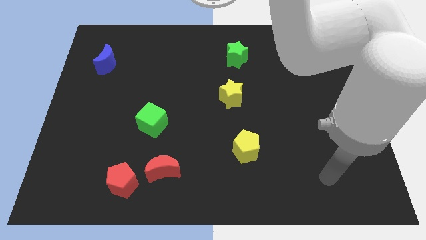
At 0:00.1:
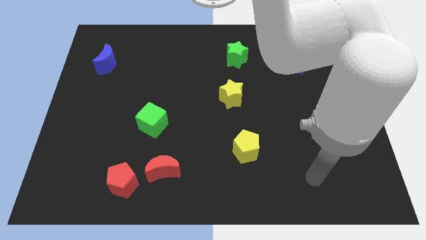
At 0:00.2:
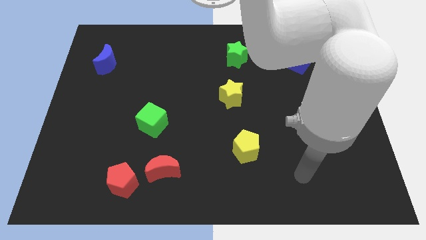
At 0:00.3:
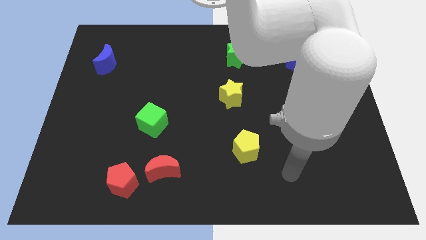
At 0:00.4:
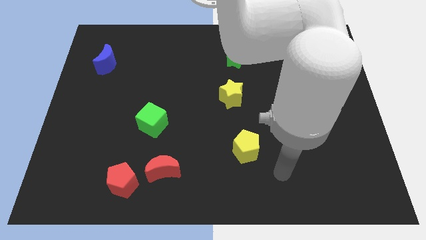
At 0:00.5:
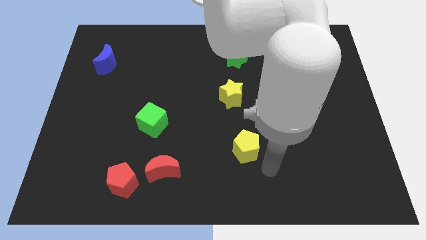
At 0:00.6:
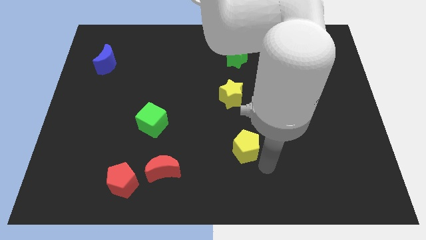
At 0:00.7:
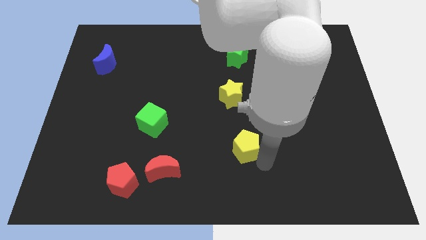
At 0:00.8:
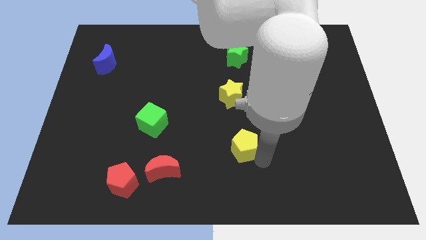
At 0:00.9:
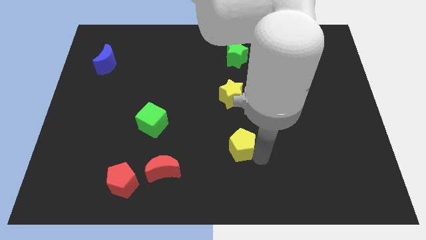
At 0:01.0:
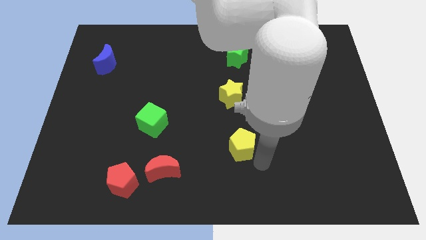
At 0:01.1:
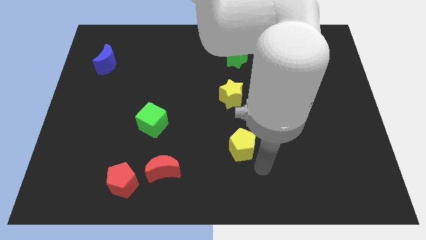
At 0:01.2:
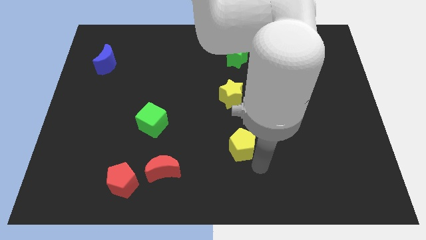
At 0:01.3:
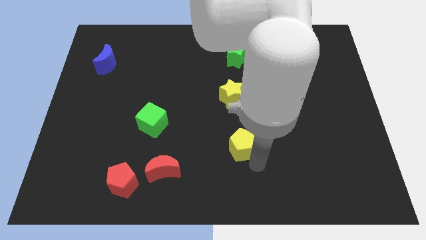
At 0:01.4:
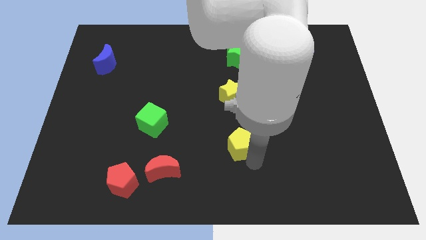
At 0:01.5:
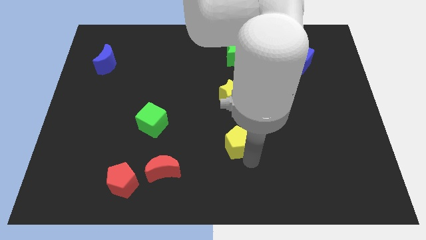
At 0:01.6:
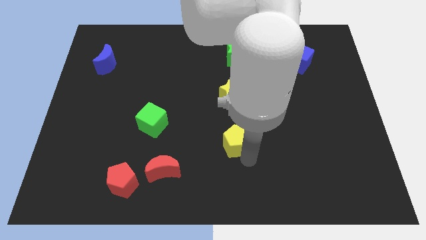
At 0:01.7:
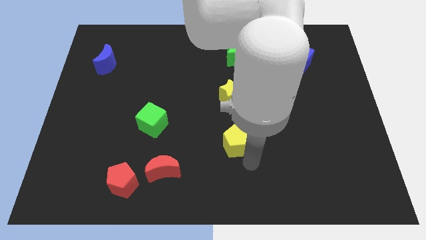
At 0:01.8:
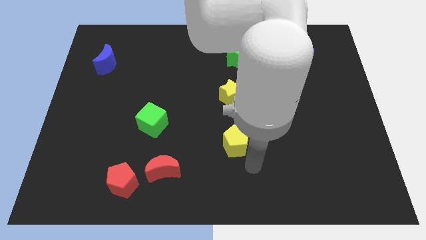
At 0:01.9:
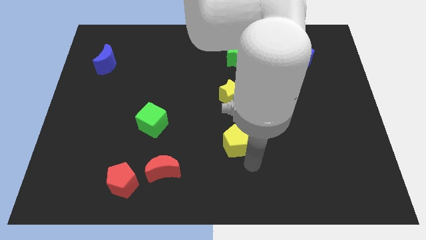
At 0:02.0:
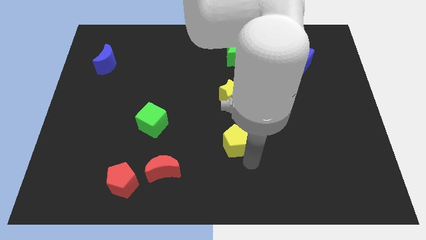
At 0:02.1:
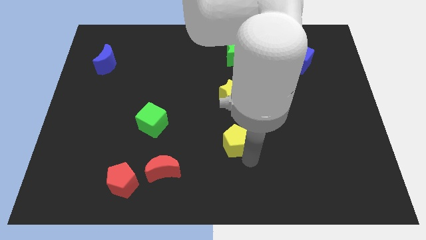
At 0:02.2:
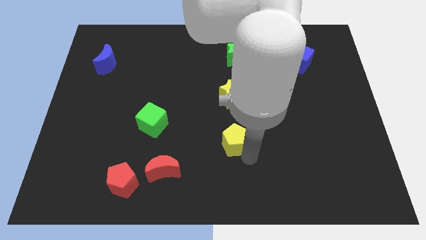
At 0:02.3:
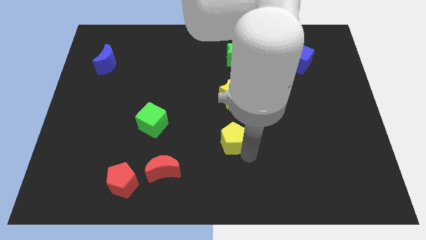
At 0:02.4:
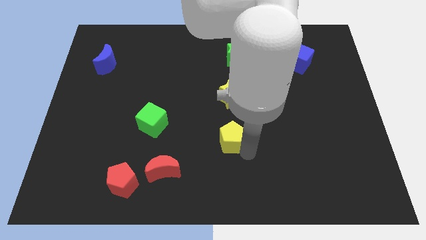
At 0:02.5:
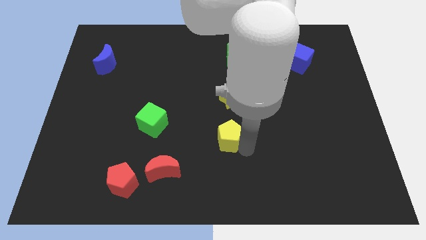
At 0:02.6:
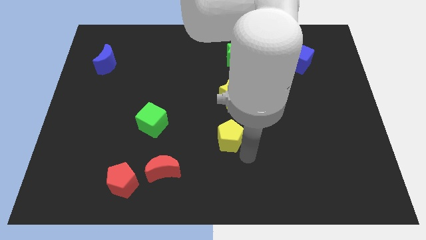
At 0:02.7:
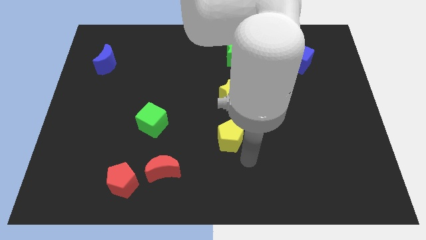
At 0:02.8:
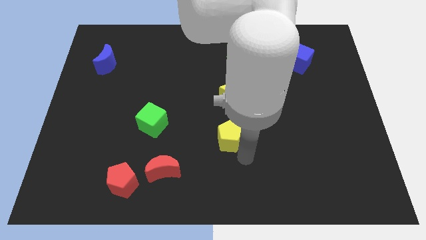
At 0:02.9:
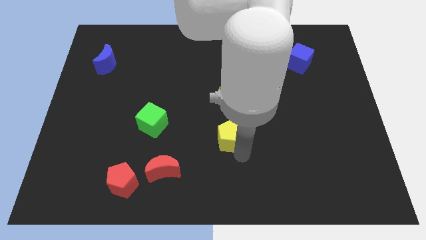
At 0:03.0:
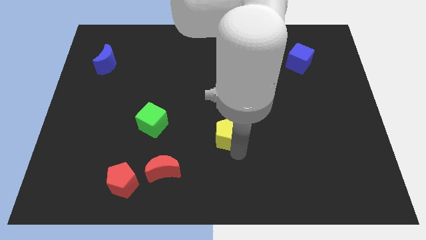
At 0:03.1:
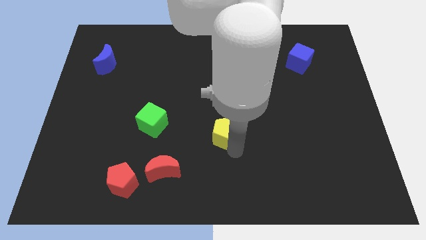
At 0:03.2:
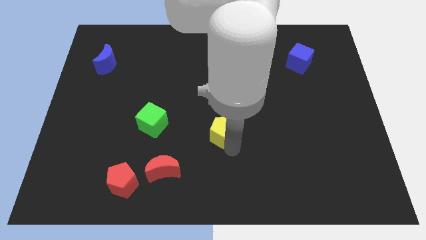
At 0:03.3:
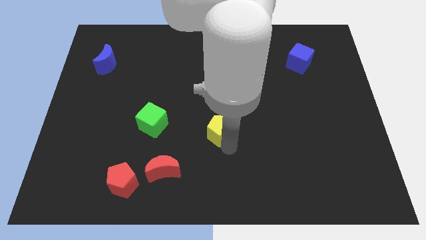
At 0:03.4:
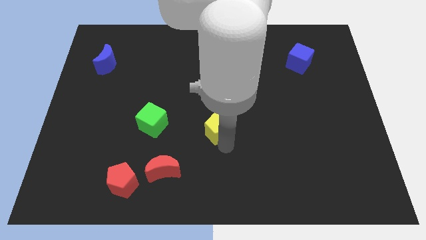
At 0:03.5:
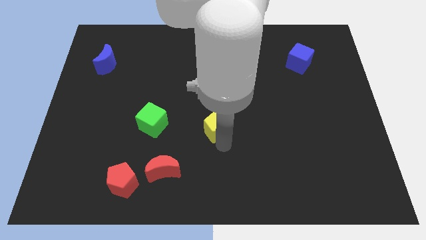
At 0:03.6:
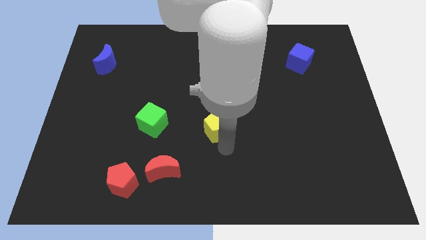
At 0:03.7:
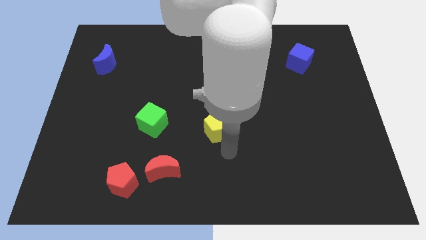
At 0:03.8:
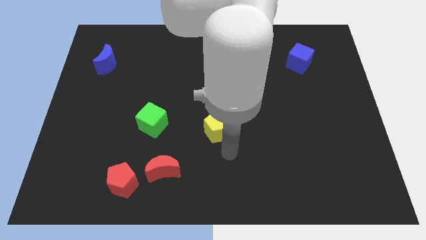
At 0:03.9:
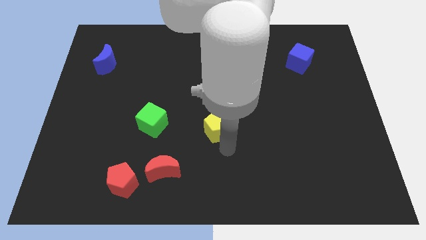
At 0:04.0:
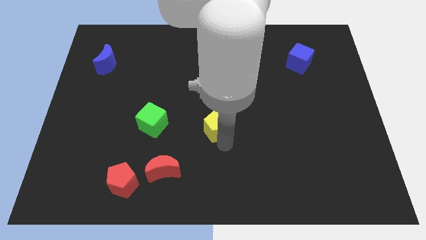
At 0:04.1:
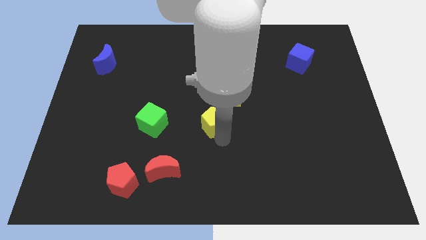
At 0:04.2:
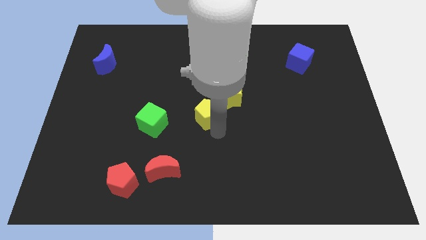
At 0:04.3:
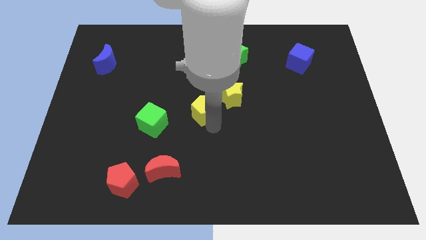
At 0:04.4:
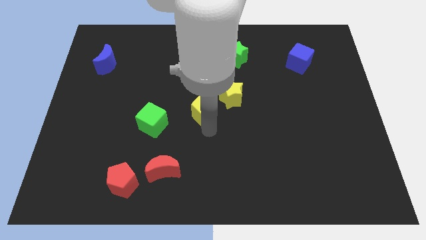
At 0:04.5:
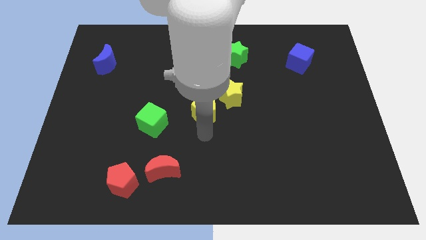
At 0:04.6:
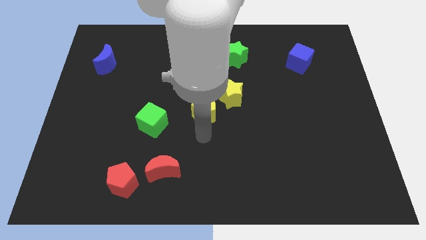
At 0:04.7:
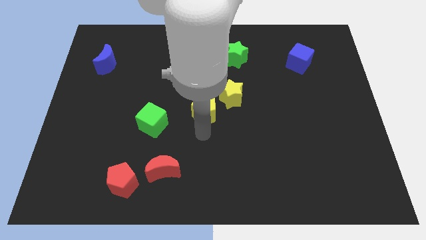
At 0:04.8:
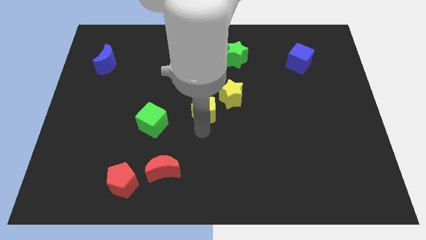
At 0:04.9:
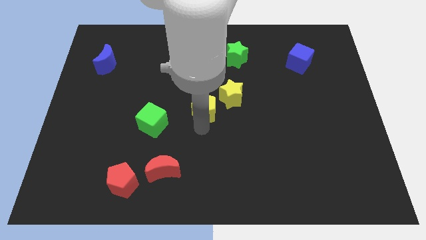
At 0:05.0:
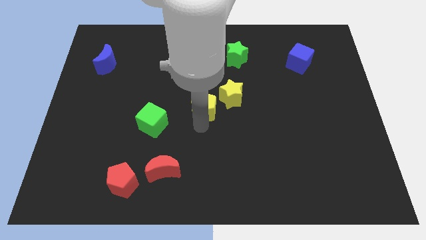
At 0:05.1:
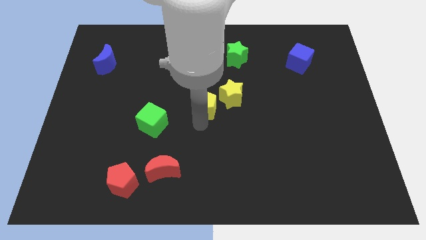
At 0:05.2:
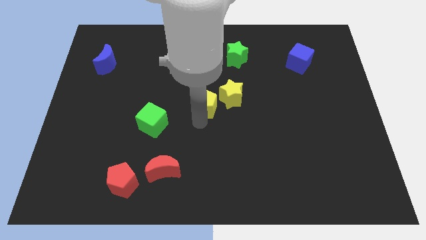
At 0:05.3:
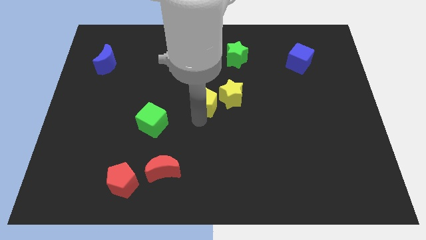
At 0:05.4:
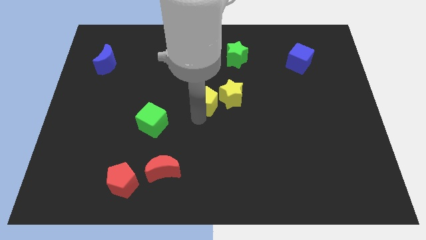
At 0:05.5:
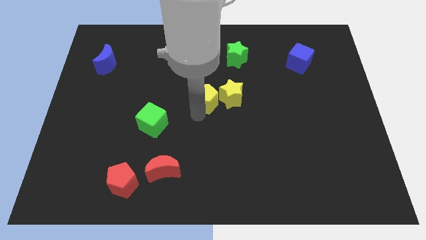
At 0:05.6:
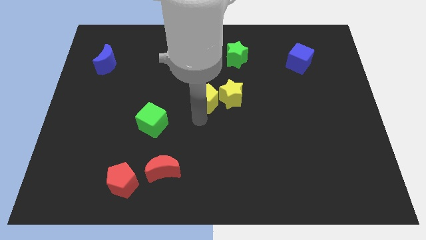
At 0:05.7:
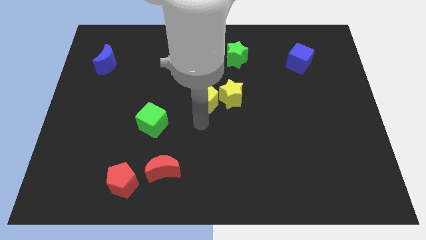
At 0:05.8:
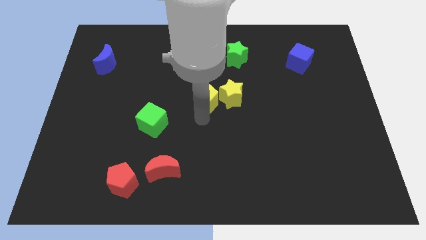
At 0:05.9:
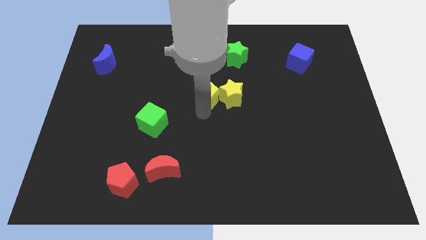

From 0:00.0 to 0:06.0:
move the yellow pentagon to the top left side of the yellow star

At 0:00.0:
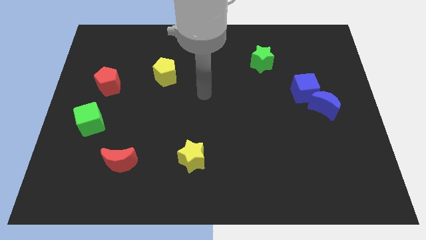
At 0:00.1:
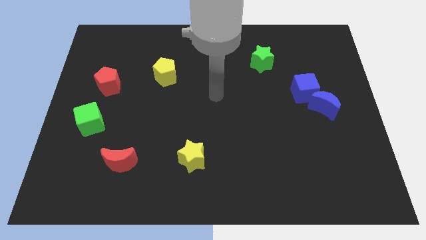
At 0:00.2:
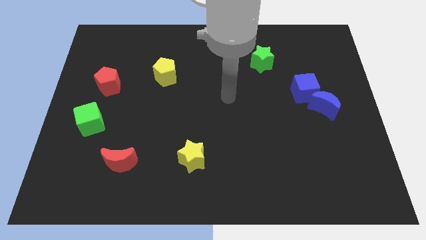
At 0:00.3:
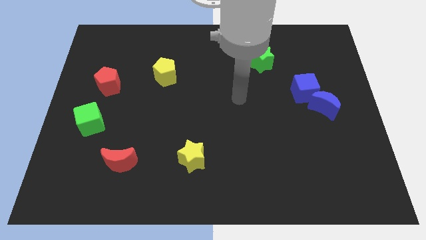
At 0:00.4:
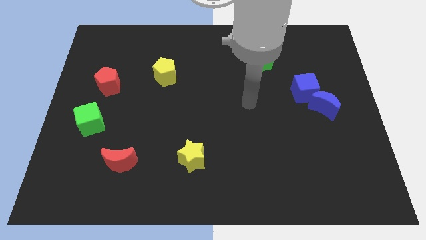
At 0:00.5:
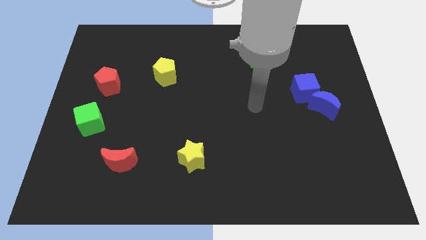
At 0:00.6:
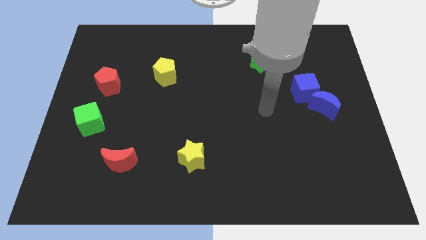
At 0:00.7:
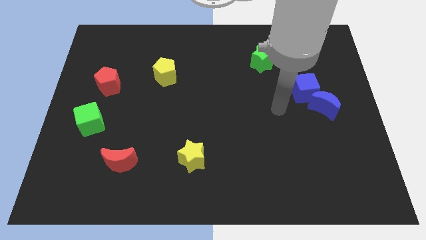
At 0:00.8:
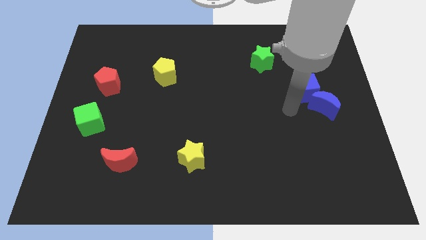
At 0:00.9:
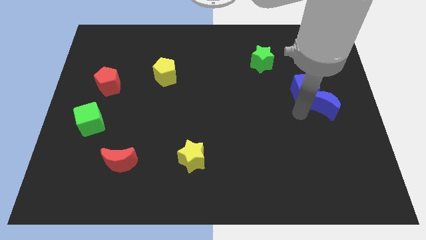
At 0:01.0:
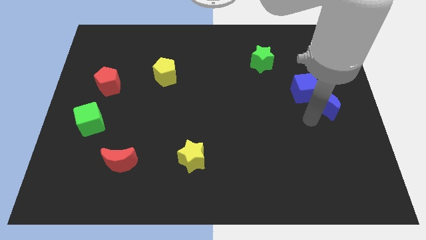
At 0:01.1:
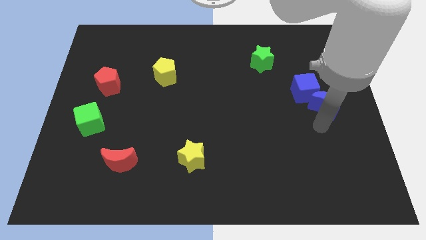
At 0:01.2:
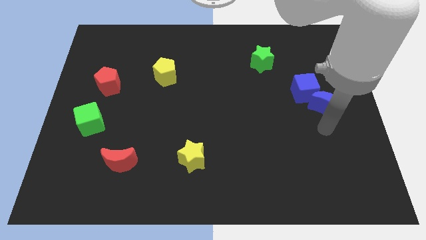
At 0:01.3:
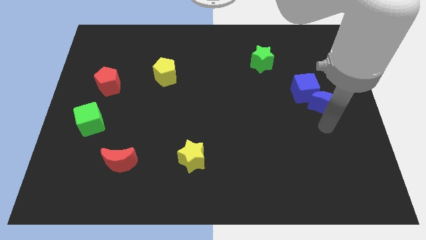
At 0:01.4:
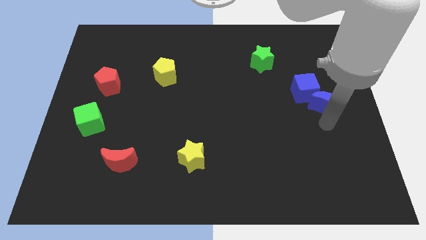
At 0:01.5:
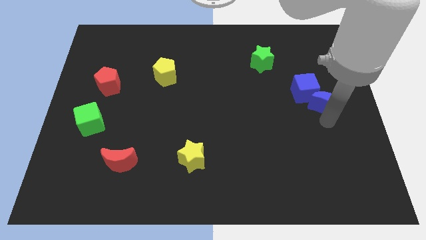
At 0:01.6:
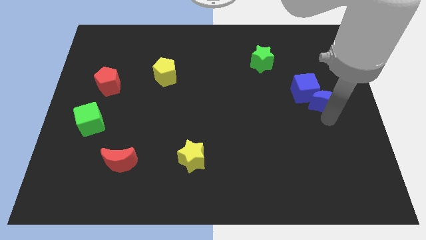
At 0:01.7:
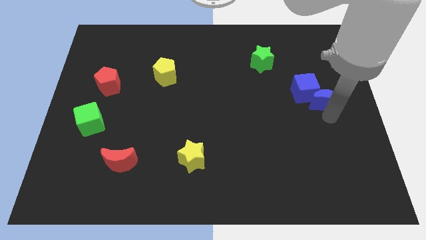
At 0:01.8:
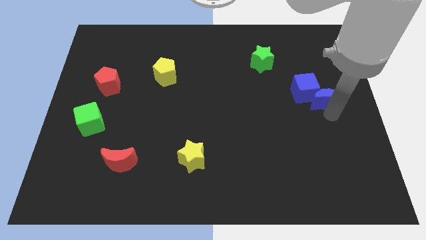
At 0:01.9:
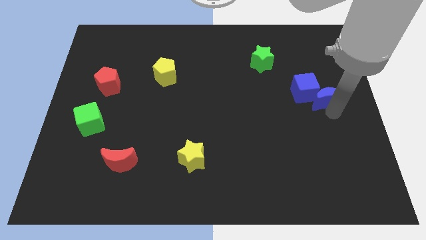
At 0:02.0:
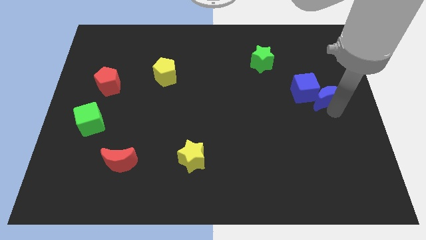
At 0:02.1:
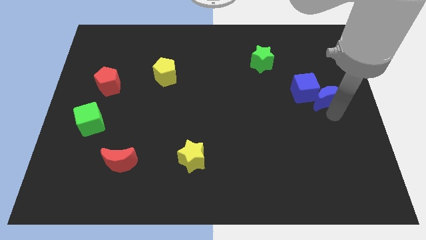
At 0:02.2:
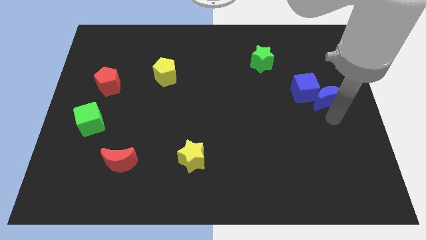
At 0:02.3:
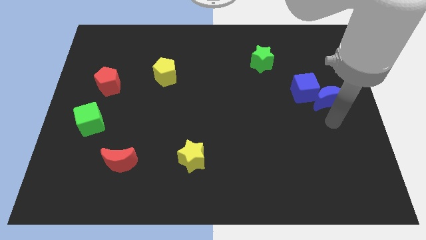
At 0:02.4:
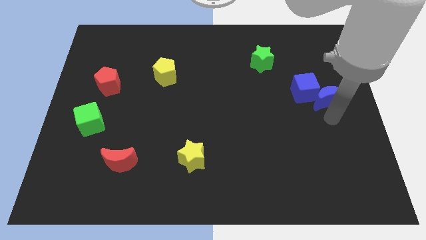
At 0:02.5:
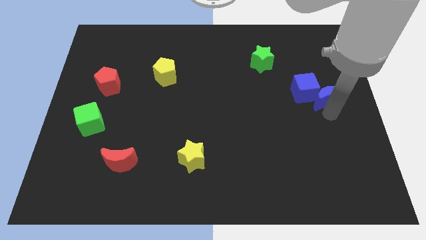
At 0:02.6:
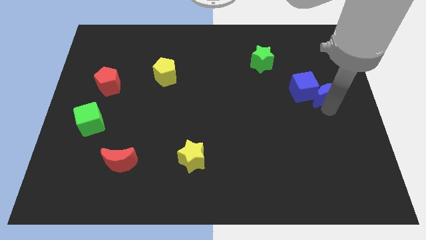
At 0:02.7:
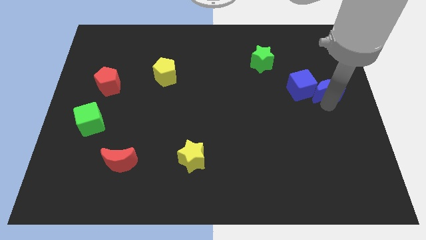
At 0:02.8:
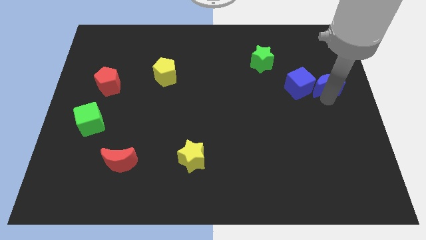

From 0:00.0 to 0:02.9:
move the blue moon diagonally up and to the right of the blue cube
